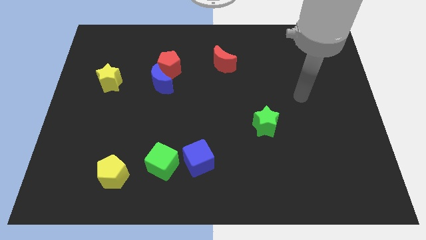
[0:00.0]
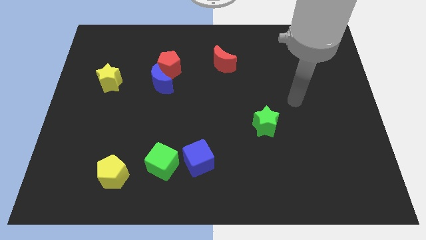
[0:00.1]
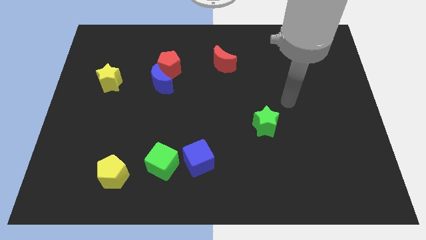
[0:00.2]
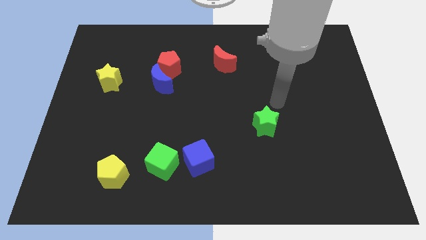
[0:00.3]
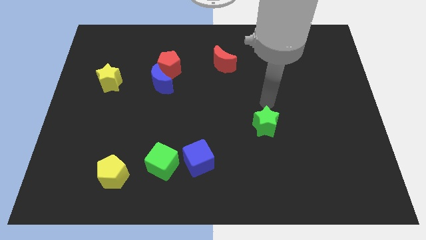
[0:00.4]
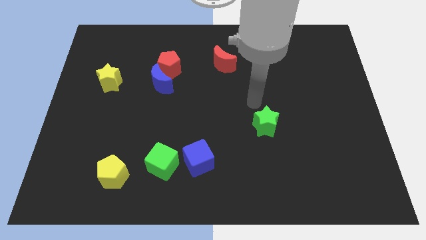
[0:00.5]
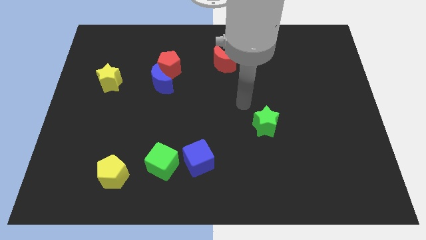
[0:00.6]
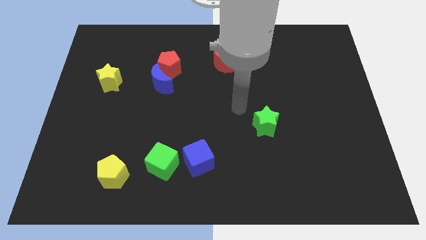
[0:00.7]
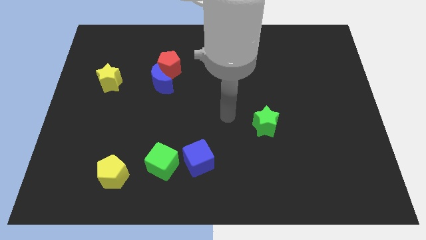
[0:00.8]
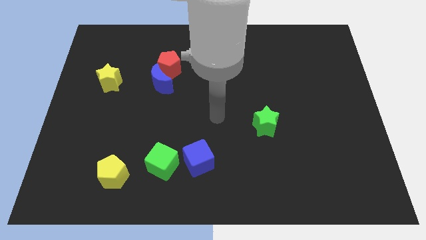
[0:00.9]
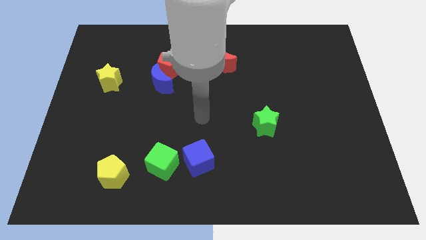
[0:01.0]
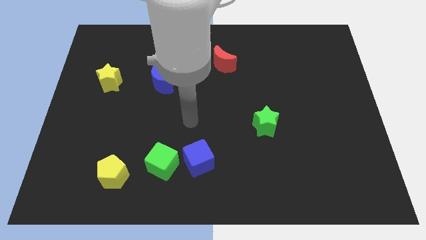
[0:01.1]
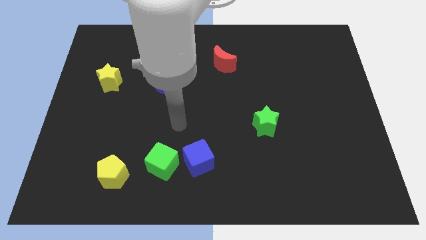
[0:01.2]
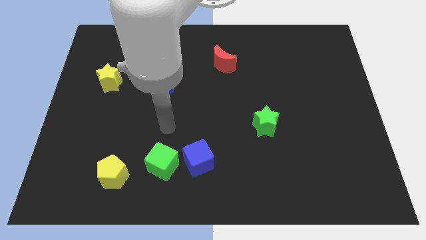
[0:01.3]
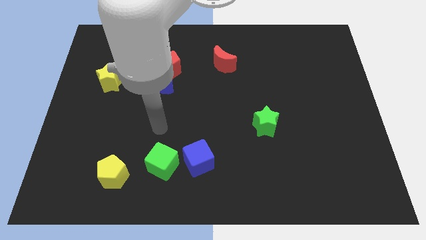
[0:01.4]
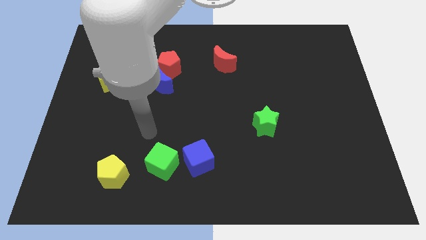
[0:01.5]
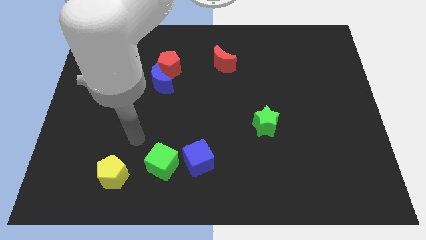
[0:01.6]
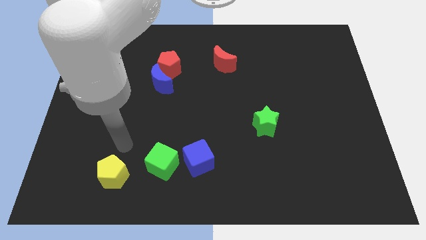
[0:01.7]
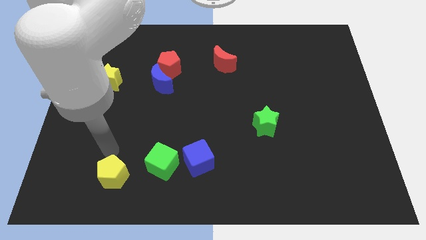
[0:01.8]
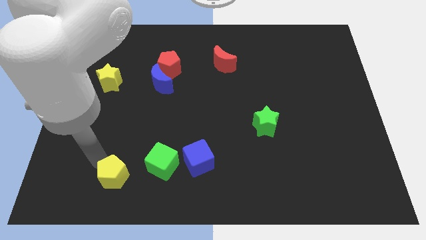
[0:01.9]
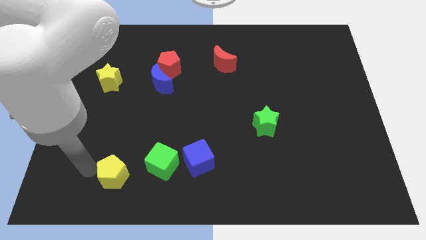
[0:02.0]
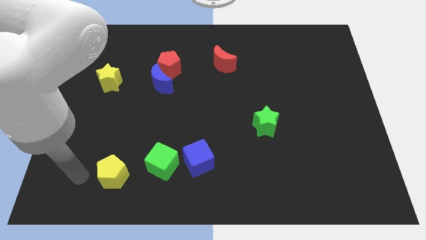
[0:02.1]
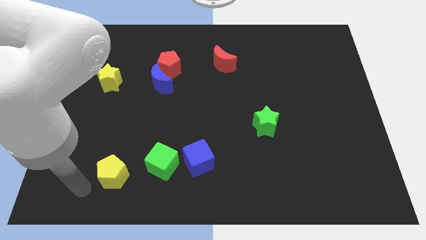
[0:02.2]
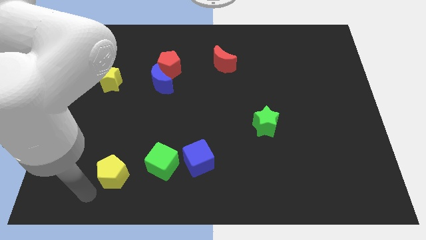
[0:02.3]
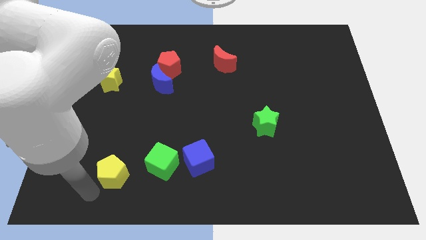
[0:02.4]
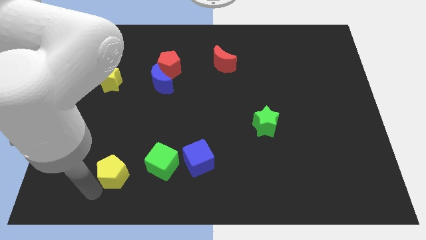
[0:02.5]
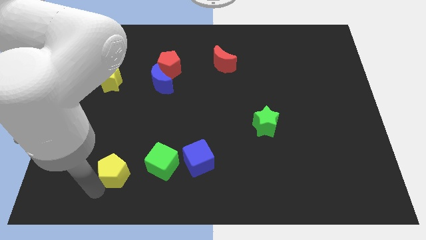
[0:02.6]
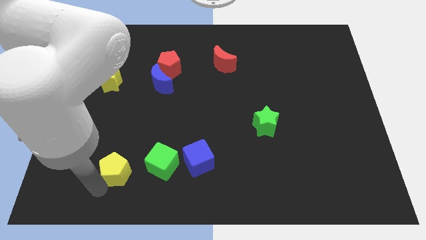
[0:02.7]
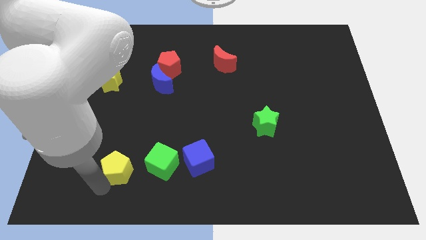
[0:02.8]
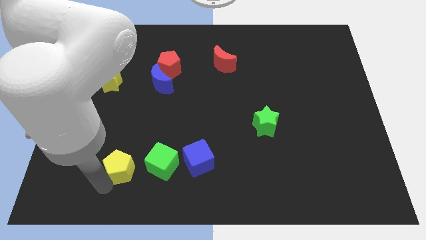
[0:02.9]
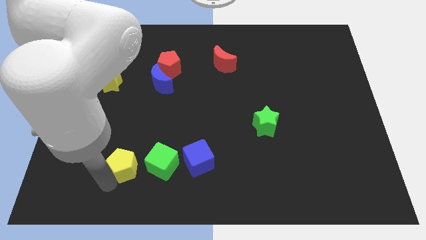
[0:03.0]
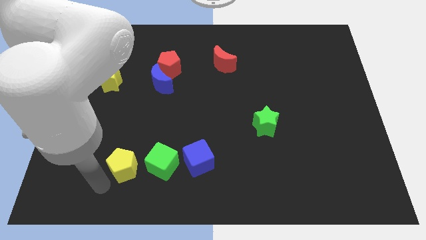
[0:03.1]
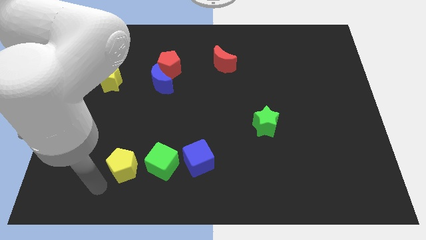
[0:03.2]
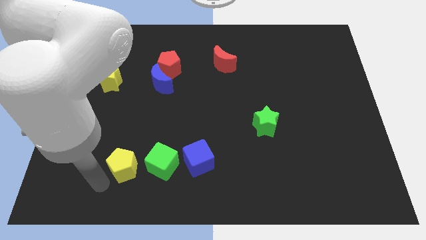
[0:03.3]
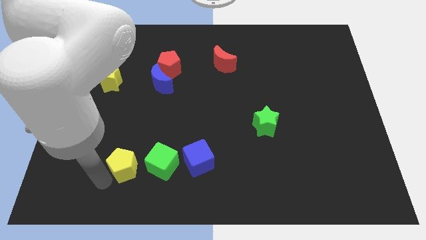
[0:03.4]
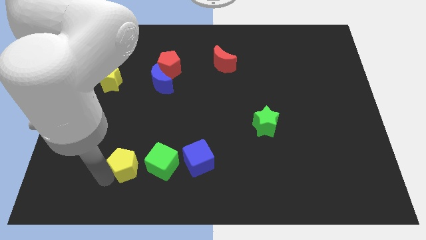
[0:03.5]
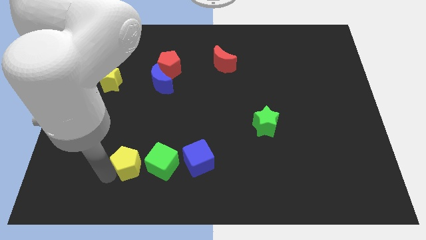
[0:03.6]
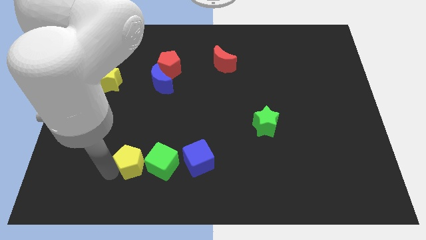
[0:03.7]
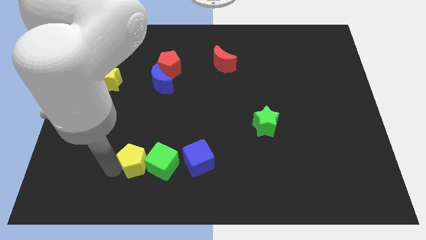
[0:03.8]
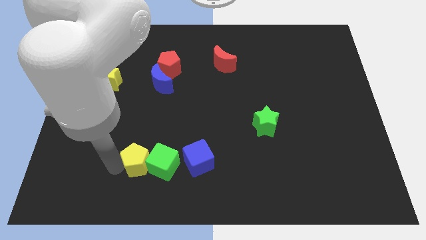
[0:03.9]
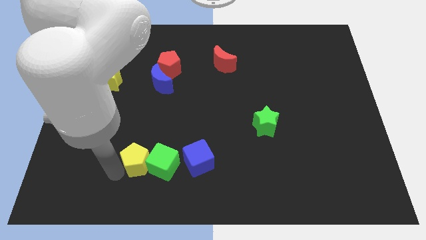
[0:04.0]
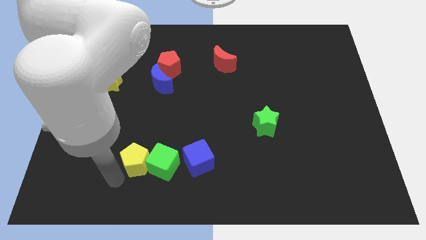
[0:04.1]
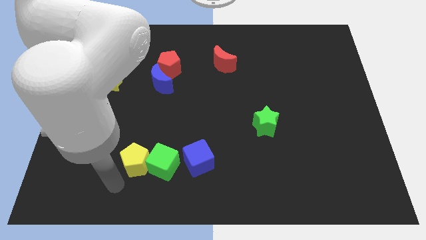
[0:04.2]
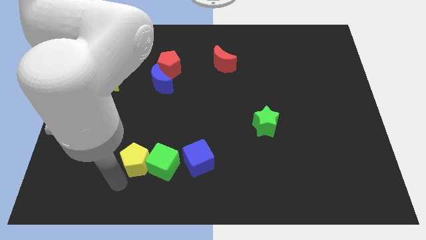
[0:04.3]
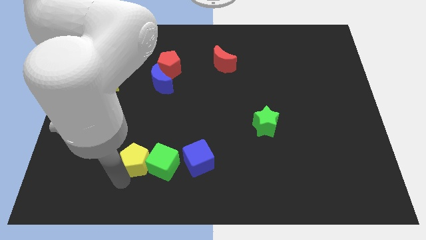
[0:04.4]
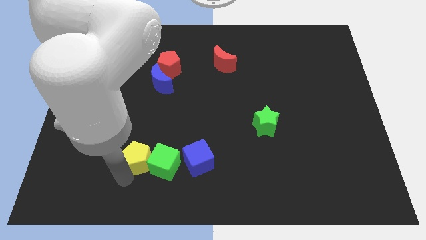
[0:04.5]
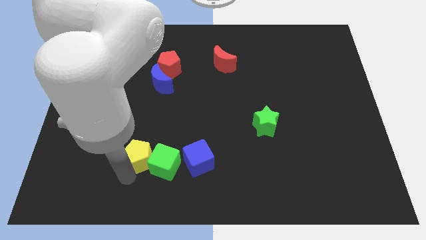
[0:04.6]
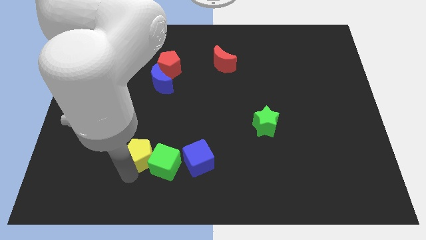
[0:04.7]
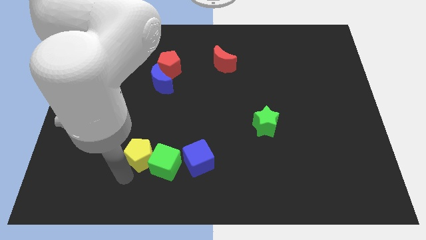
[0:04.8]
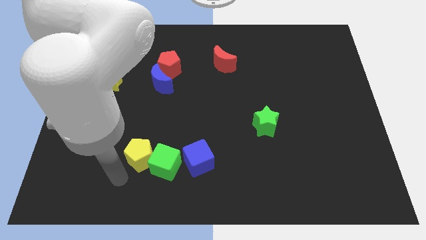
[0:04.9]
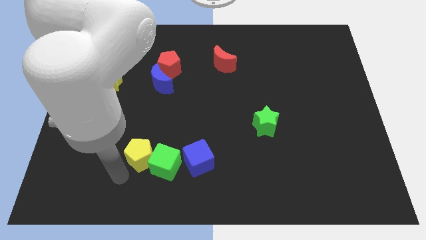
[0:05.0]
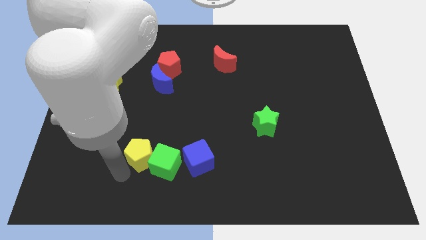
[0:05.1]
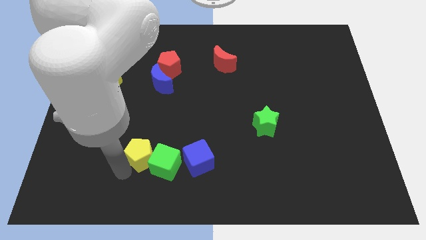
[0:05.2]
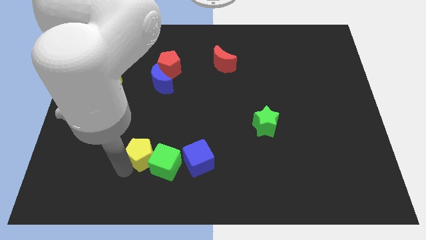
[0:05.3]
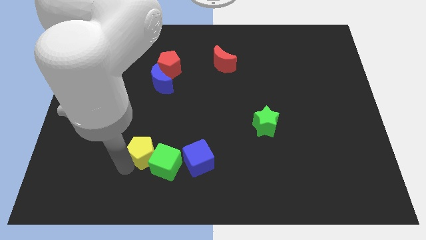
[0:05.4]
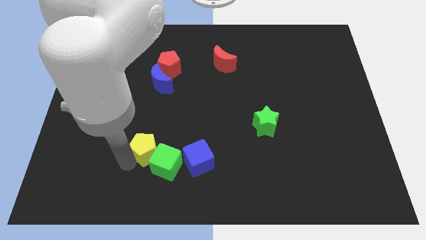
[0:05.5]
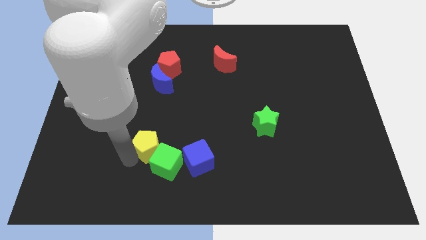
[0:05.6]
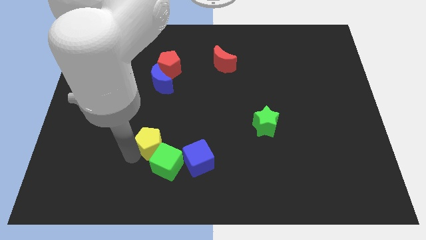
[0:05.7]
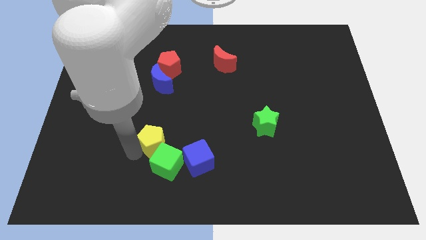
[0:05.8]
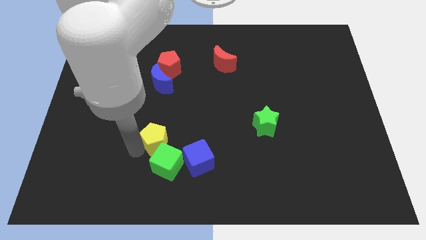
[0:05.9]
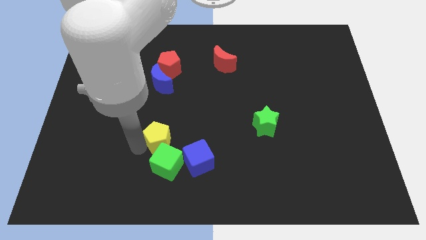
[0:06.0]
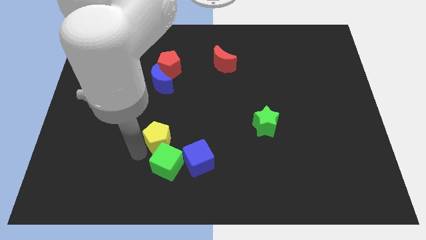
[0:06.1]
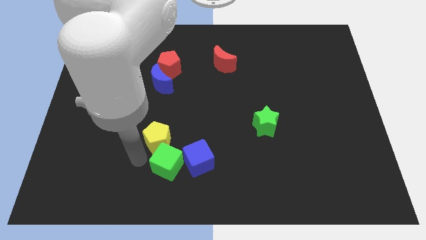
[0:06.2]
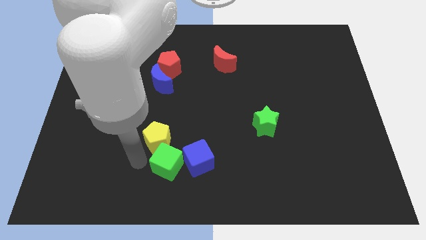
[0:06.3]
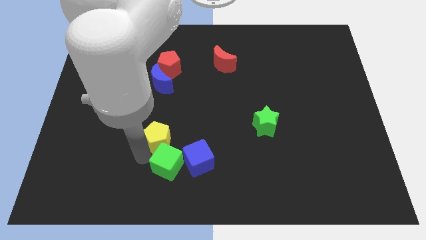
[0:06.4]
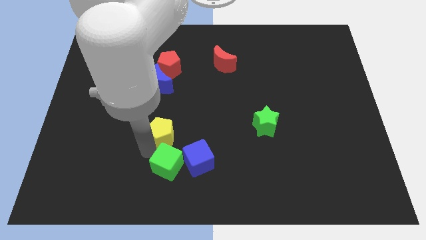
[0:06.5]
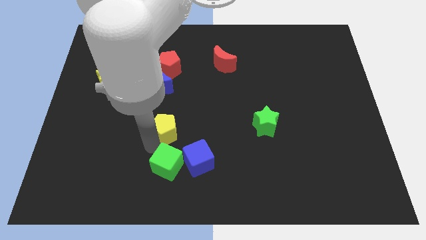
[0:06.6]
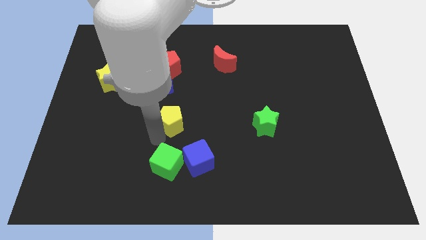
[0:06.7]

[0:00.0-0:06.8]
slide the yellow pentagon to the middle of the board
